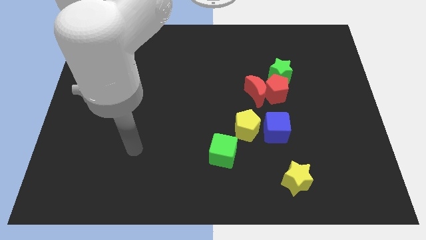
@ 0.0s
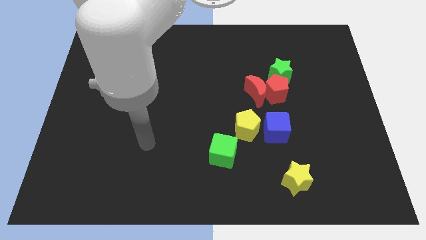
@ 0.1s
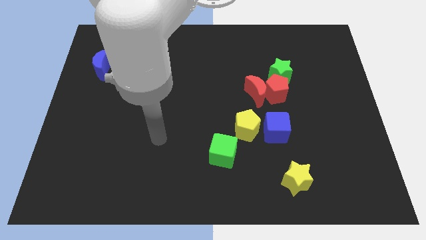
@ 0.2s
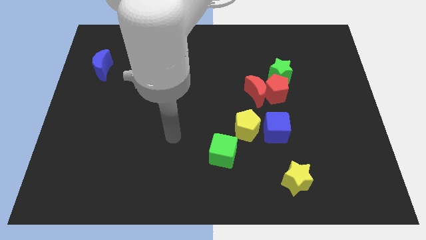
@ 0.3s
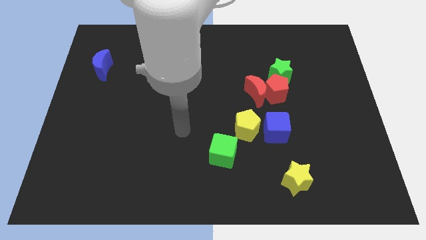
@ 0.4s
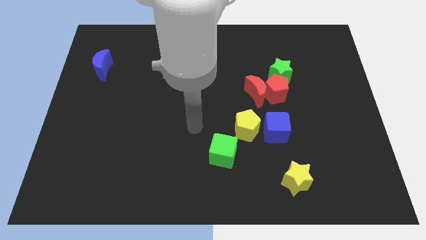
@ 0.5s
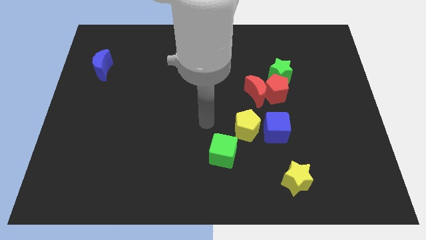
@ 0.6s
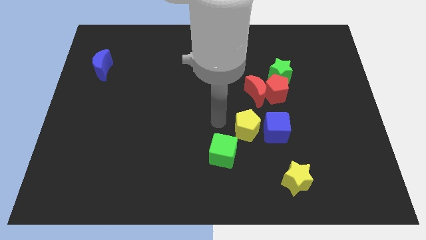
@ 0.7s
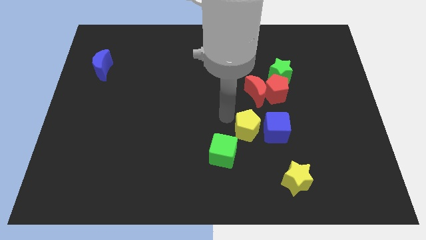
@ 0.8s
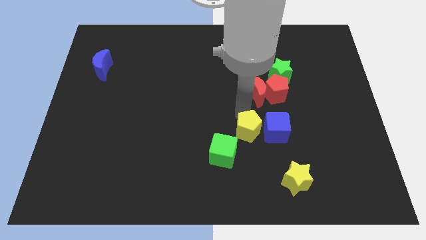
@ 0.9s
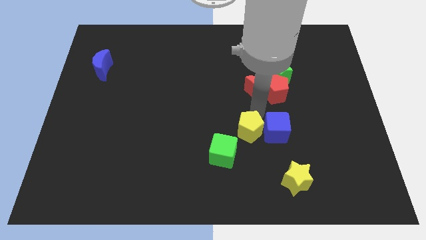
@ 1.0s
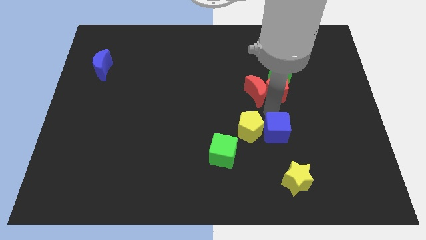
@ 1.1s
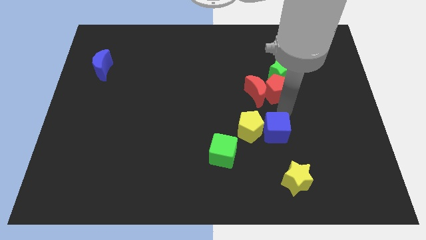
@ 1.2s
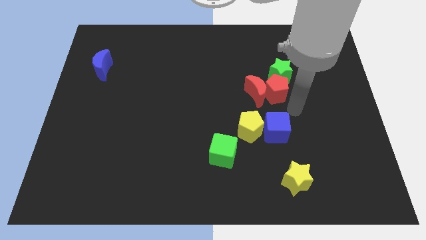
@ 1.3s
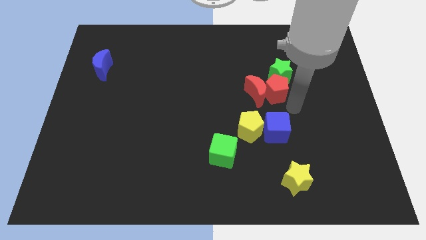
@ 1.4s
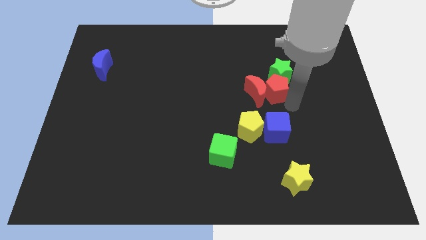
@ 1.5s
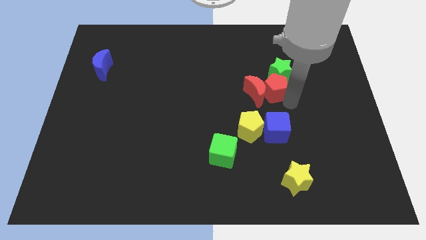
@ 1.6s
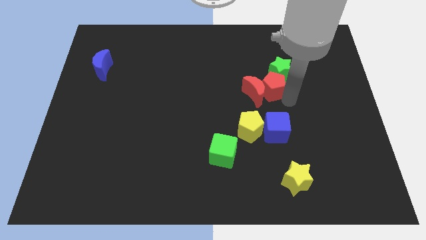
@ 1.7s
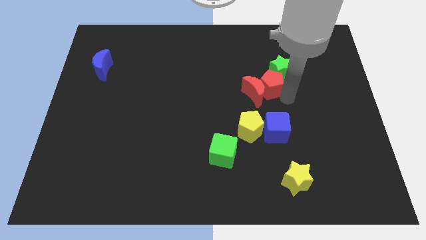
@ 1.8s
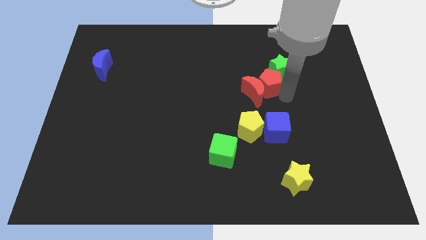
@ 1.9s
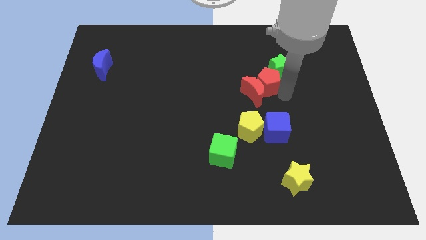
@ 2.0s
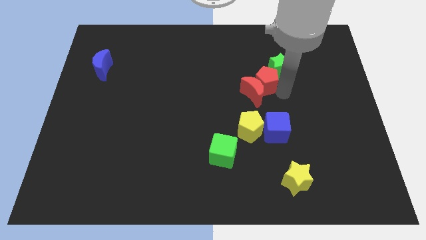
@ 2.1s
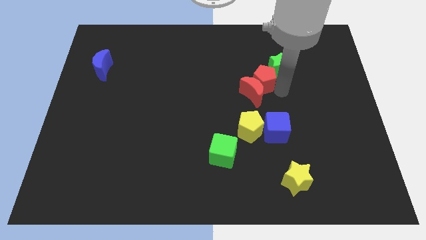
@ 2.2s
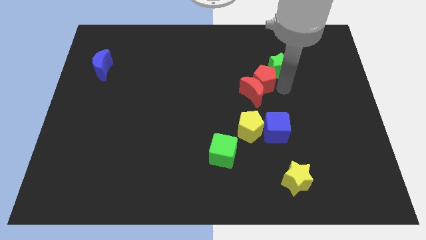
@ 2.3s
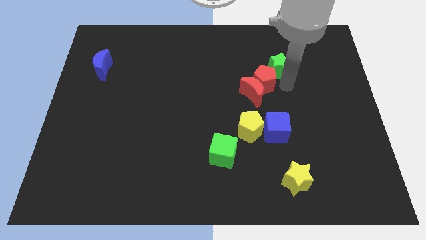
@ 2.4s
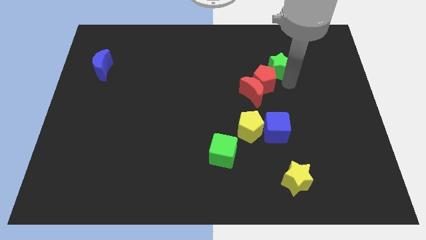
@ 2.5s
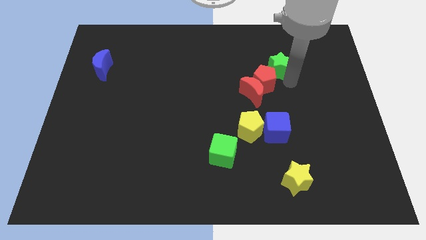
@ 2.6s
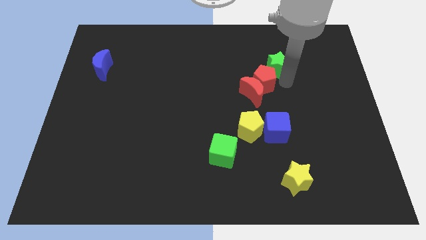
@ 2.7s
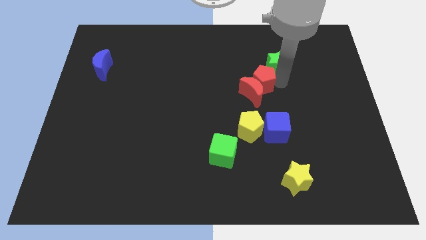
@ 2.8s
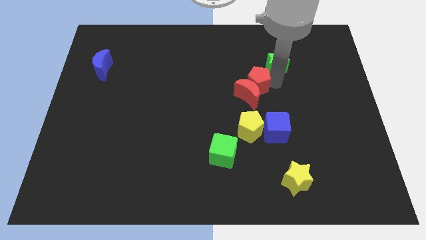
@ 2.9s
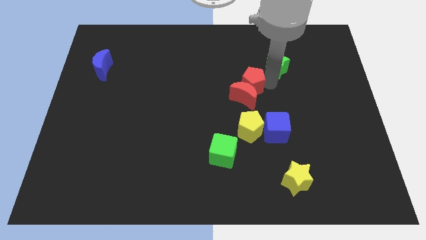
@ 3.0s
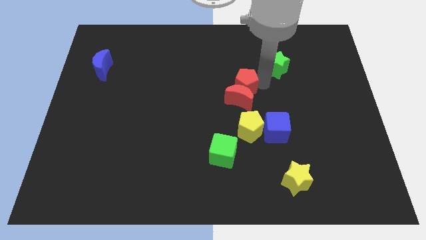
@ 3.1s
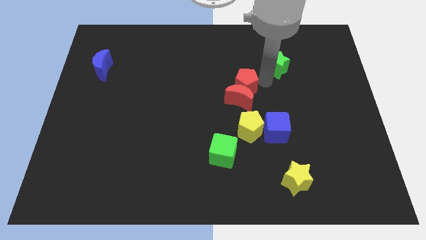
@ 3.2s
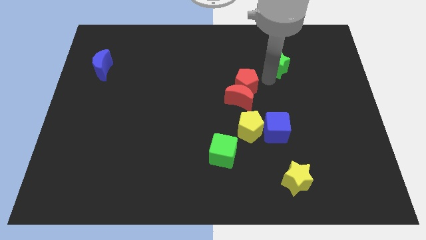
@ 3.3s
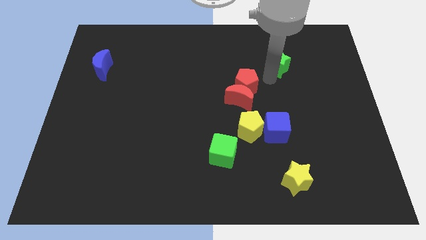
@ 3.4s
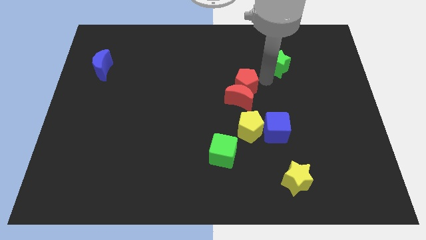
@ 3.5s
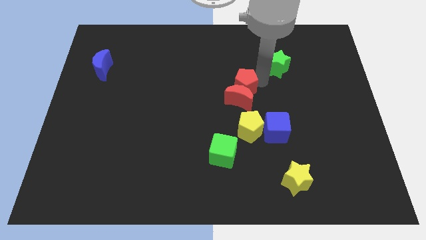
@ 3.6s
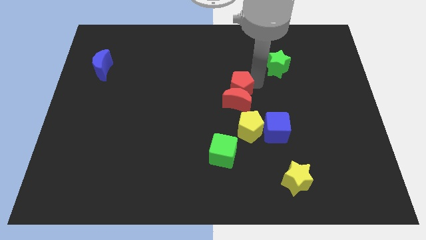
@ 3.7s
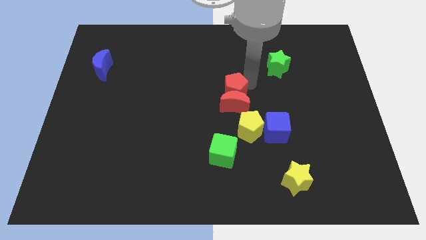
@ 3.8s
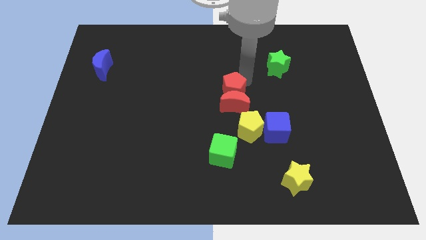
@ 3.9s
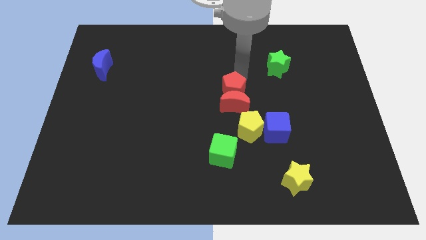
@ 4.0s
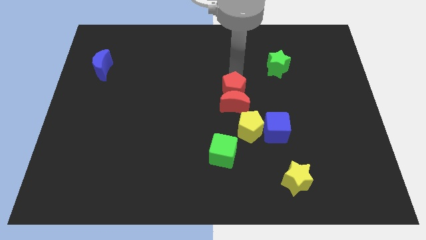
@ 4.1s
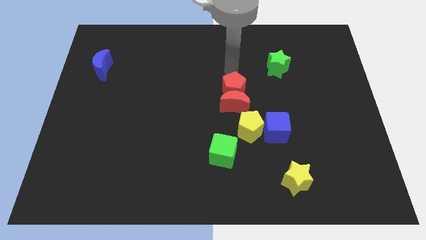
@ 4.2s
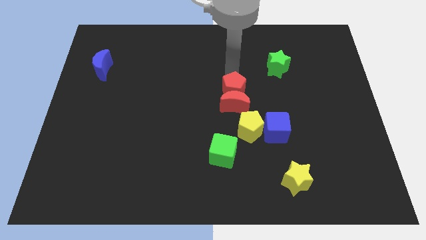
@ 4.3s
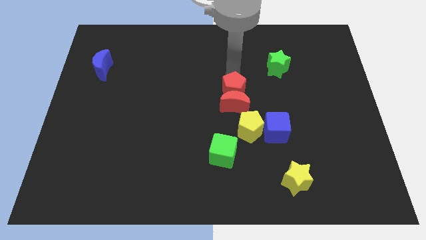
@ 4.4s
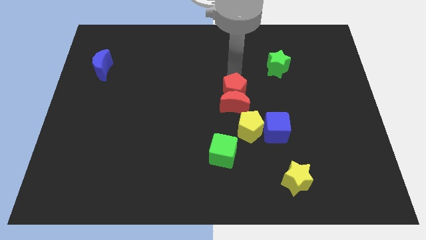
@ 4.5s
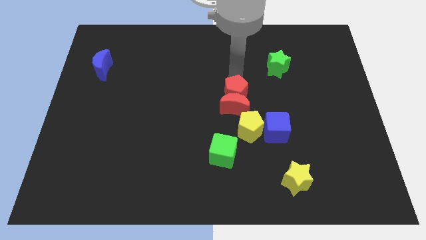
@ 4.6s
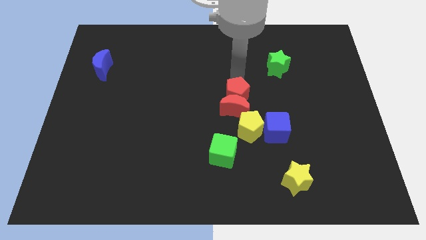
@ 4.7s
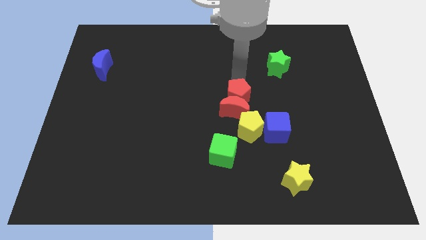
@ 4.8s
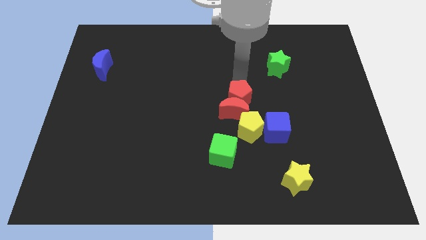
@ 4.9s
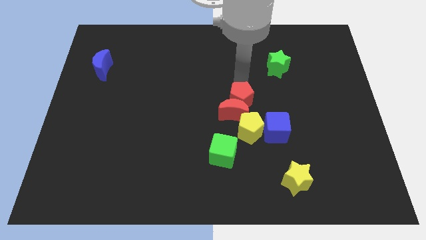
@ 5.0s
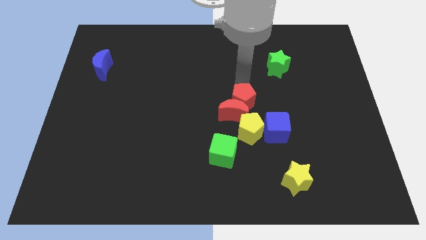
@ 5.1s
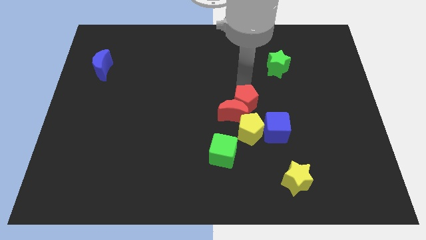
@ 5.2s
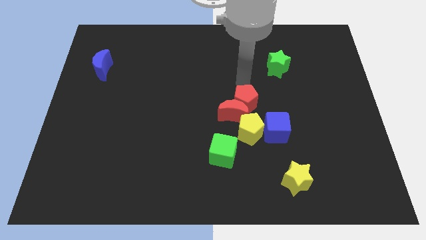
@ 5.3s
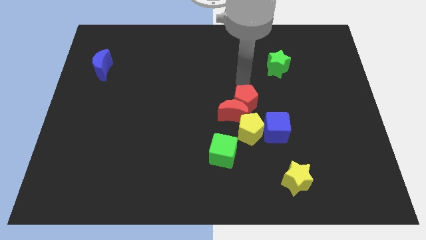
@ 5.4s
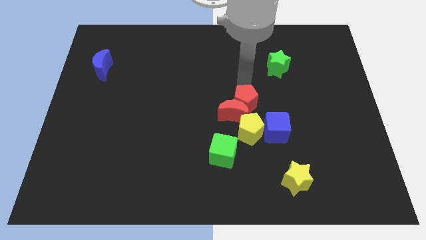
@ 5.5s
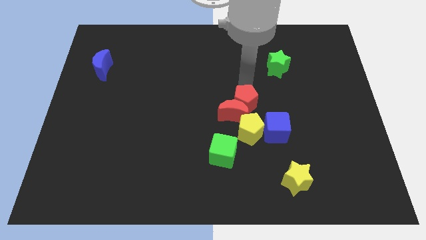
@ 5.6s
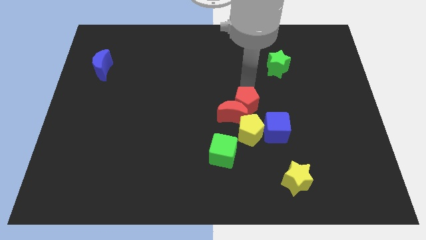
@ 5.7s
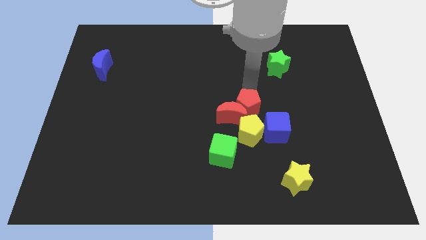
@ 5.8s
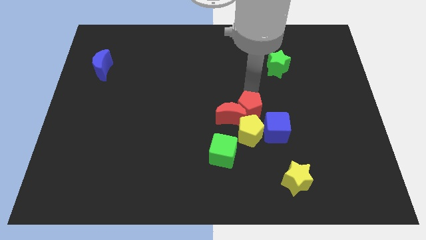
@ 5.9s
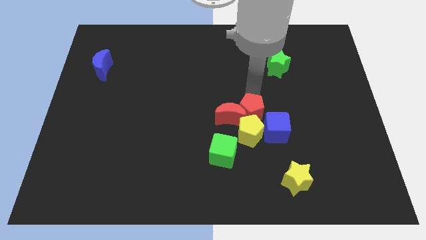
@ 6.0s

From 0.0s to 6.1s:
put the red pentagon towards the yellow pentagon
